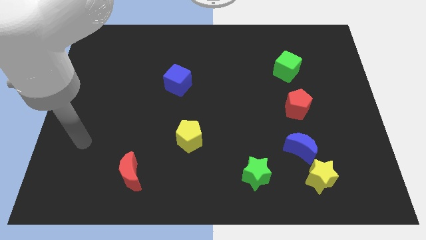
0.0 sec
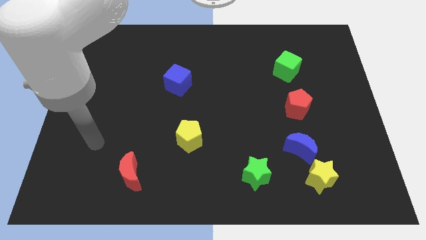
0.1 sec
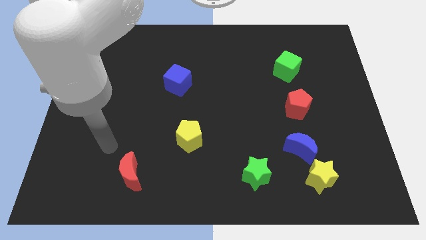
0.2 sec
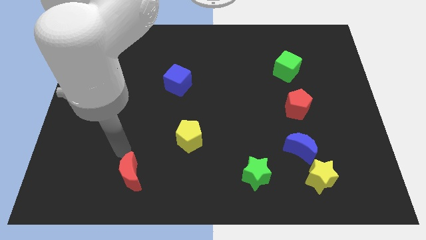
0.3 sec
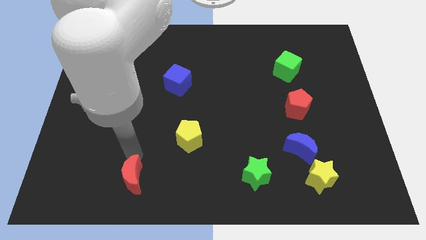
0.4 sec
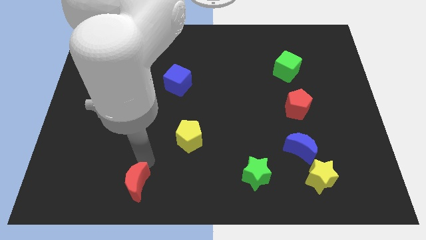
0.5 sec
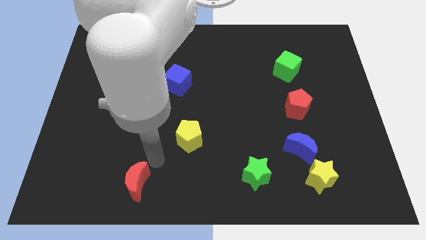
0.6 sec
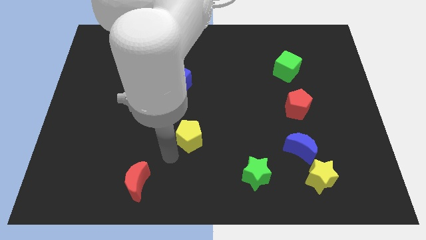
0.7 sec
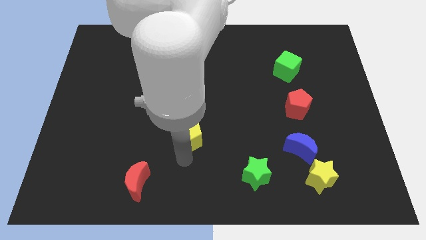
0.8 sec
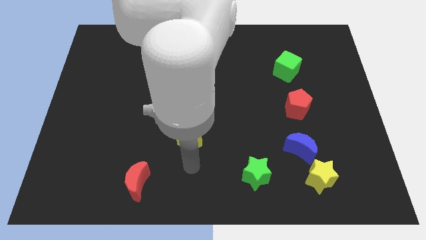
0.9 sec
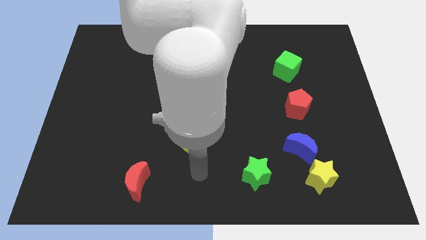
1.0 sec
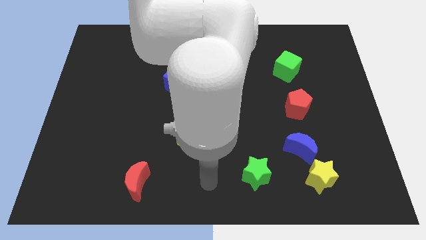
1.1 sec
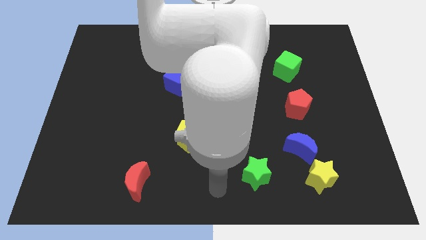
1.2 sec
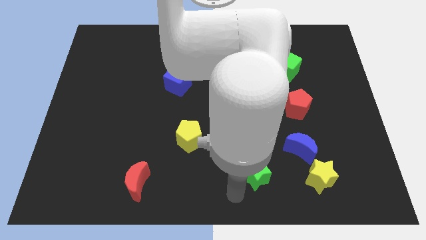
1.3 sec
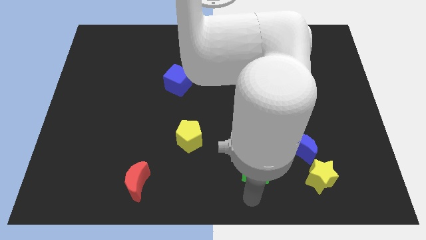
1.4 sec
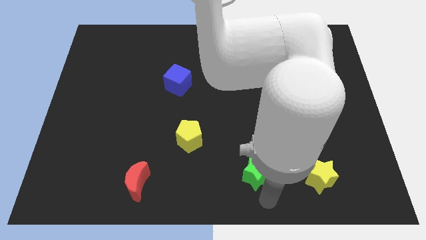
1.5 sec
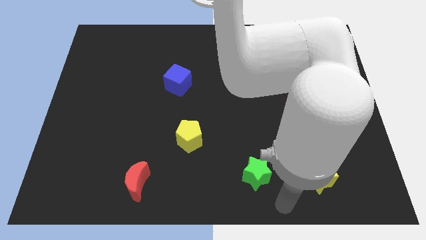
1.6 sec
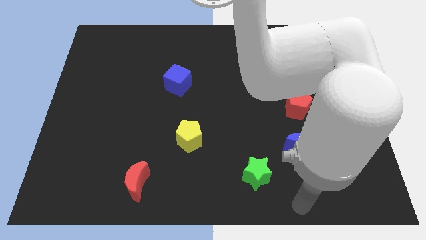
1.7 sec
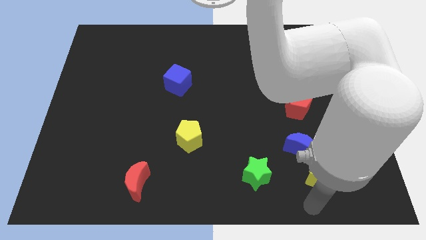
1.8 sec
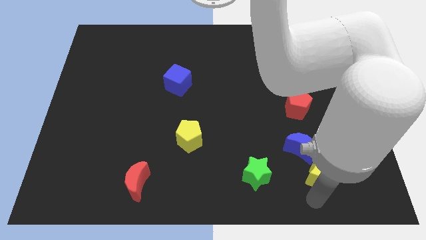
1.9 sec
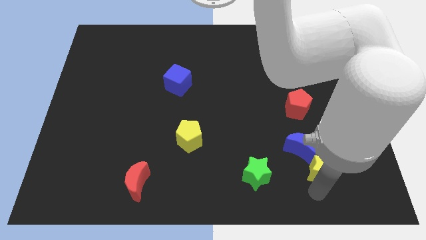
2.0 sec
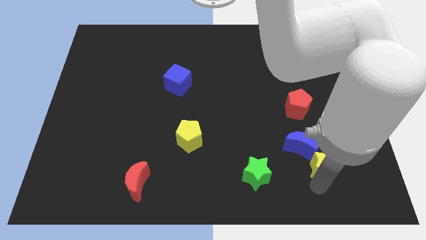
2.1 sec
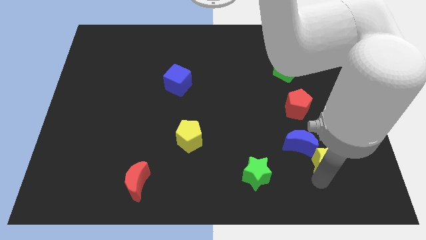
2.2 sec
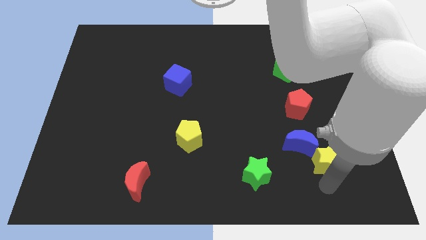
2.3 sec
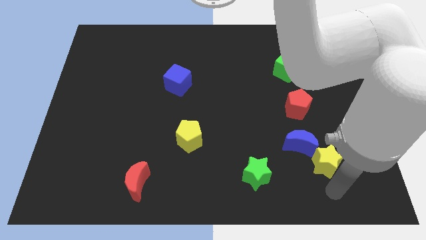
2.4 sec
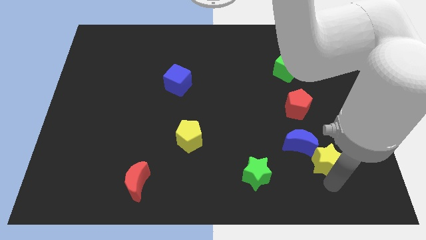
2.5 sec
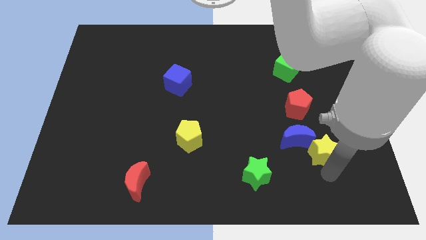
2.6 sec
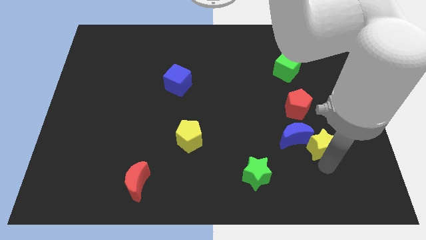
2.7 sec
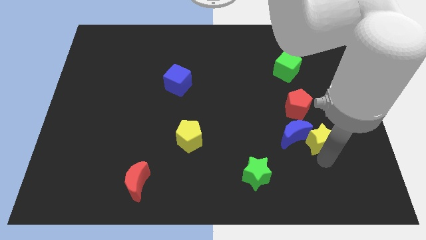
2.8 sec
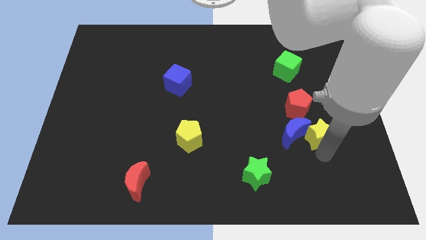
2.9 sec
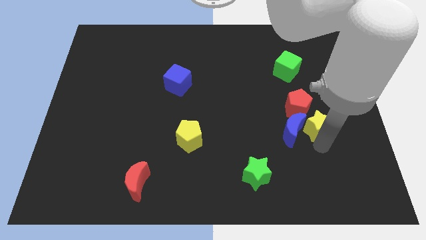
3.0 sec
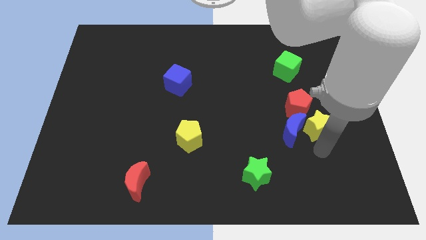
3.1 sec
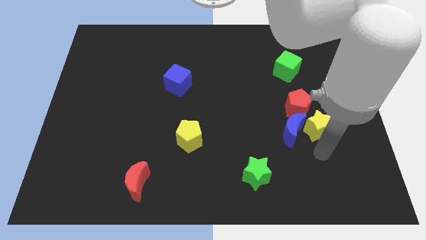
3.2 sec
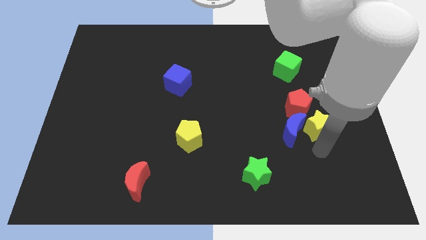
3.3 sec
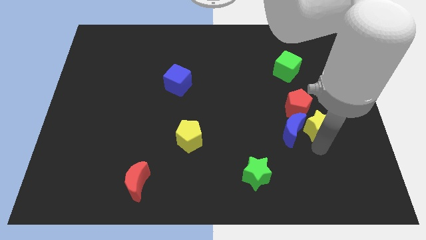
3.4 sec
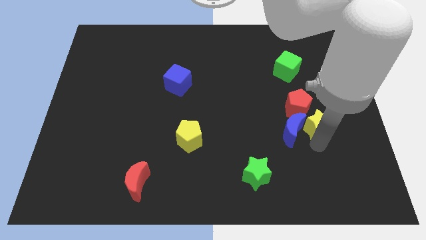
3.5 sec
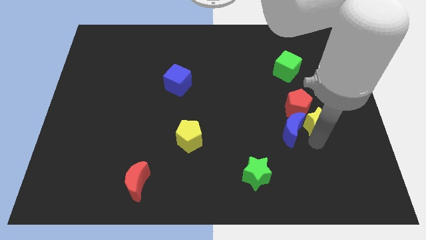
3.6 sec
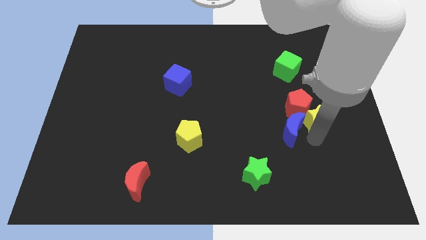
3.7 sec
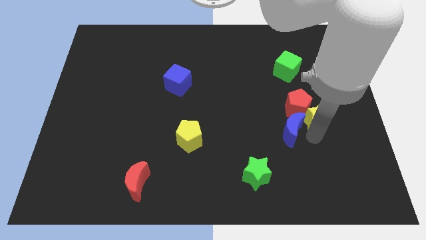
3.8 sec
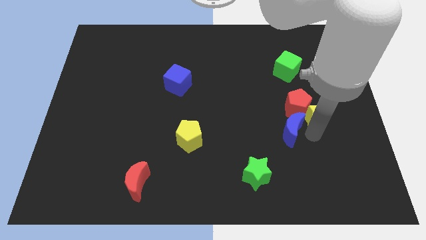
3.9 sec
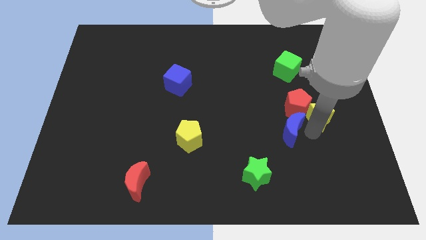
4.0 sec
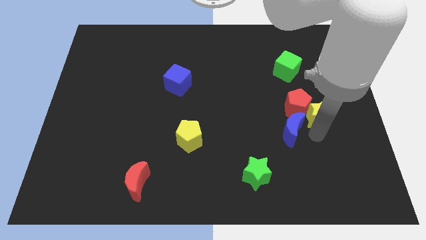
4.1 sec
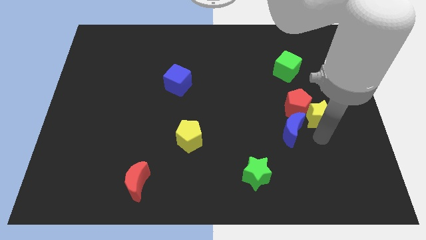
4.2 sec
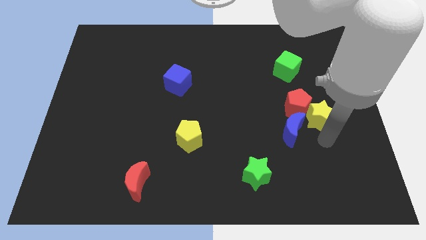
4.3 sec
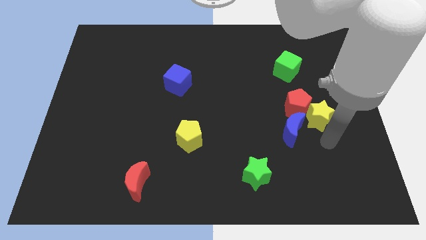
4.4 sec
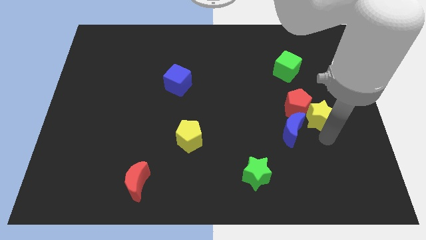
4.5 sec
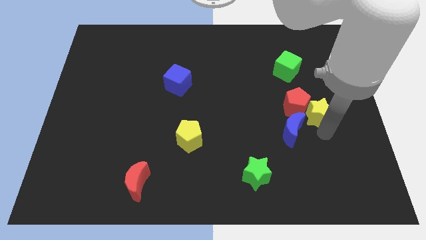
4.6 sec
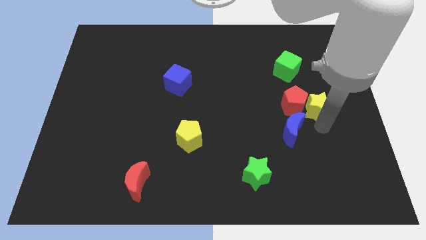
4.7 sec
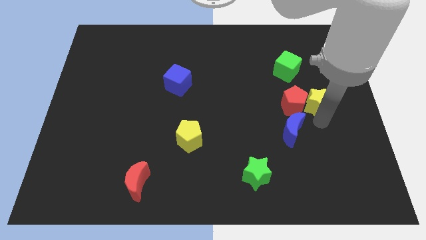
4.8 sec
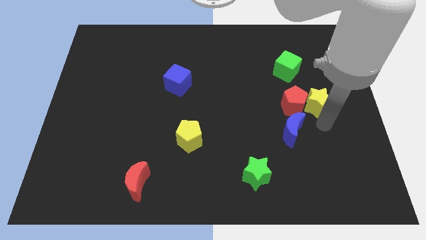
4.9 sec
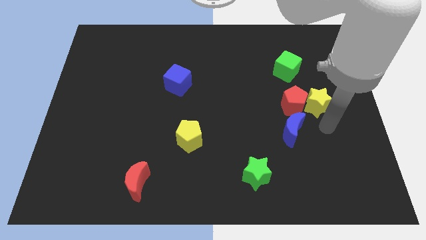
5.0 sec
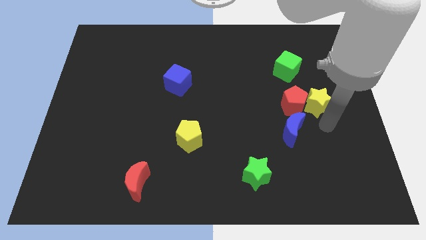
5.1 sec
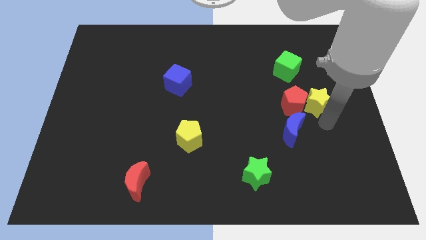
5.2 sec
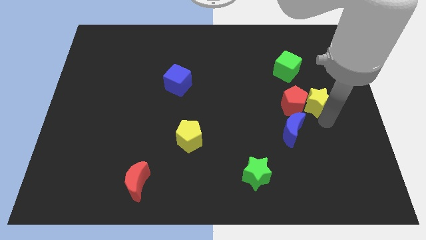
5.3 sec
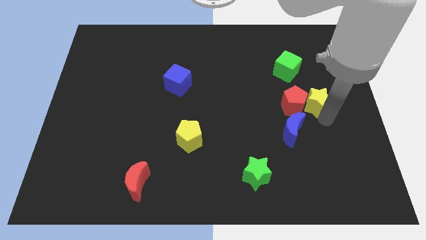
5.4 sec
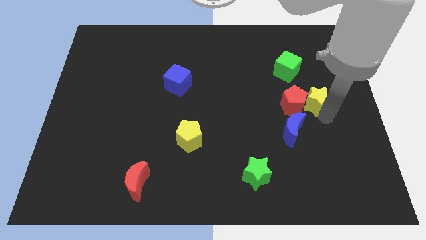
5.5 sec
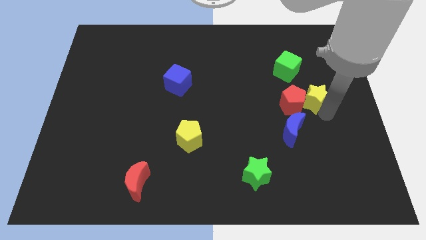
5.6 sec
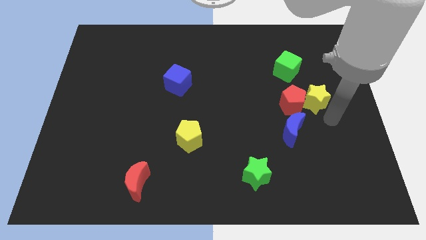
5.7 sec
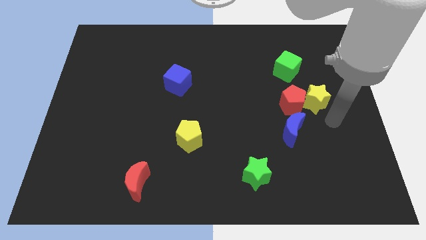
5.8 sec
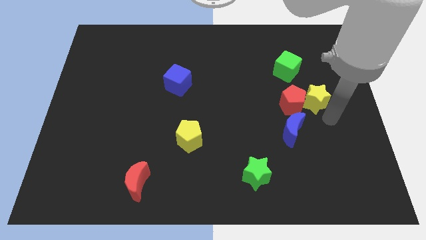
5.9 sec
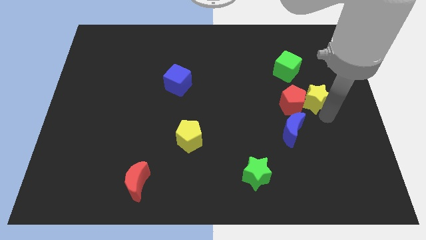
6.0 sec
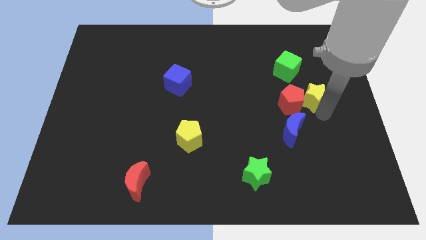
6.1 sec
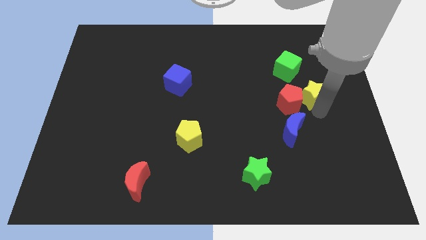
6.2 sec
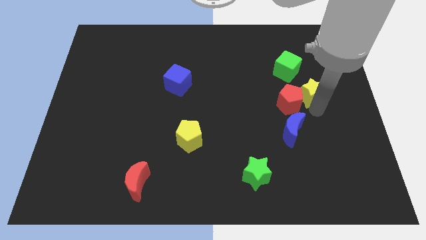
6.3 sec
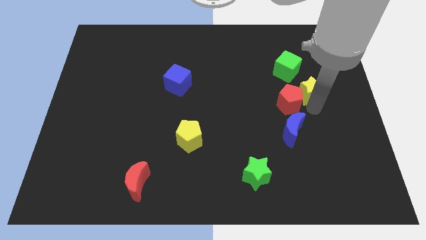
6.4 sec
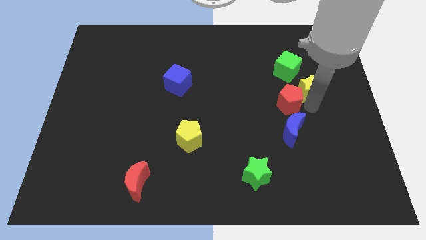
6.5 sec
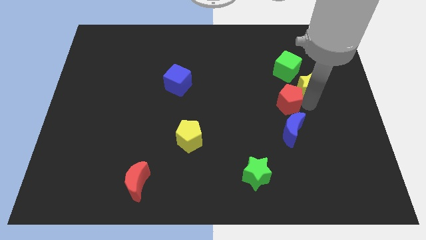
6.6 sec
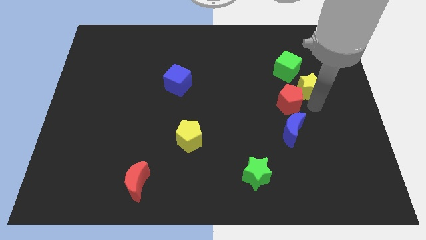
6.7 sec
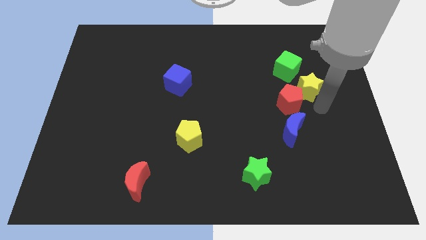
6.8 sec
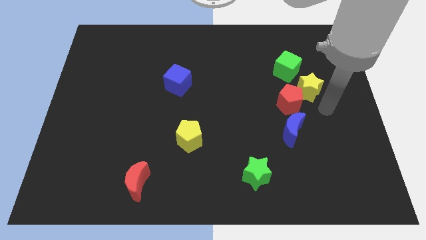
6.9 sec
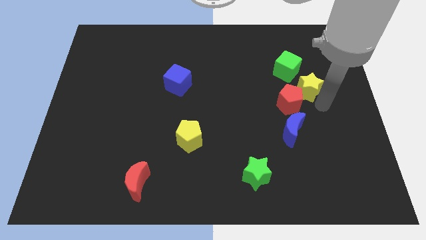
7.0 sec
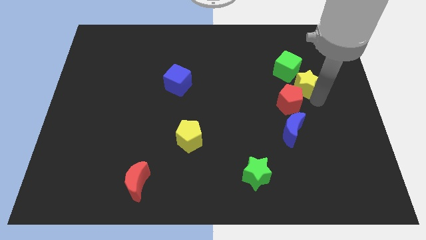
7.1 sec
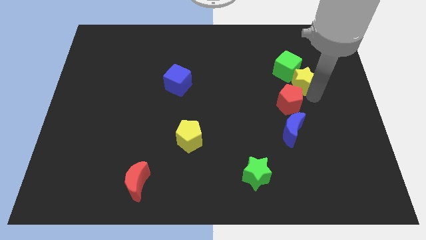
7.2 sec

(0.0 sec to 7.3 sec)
put the yellow star next to the green cube

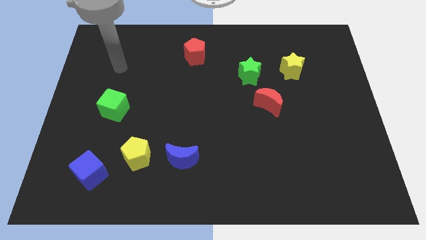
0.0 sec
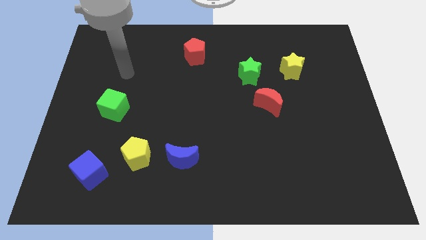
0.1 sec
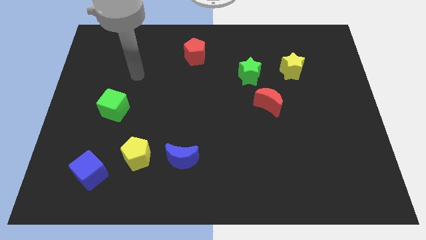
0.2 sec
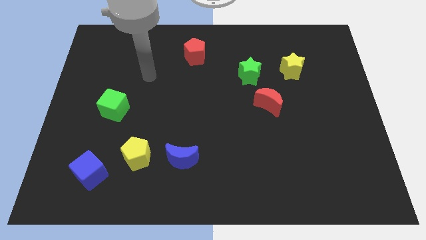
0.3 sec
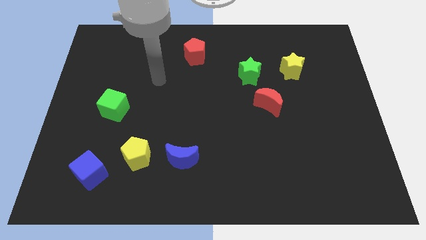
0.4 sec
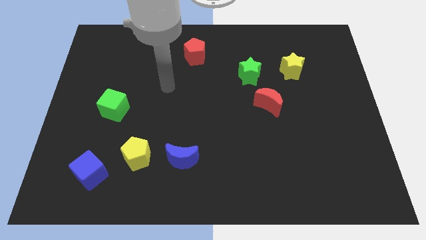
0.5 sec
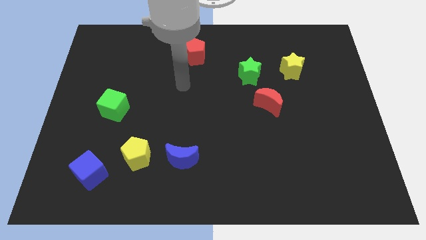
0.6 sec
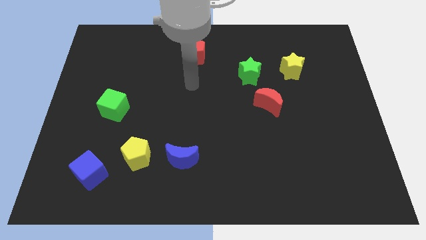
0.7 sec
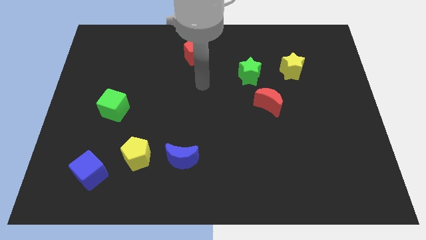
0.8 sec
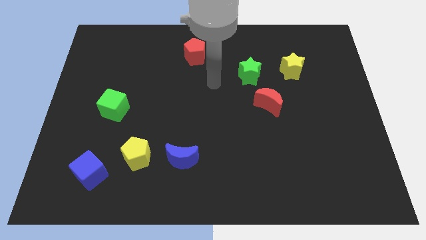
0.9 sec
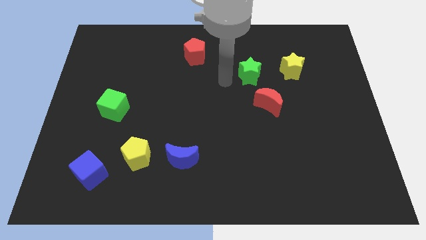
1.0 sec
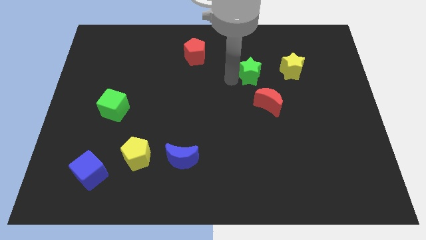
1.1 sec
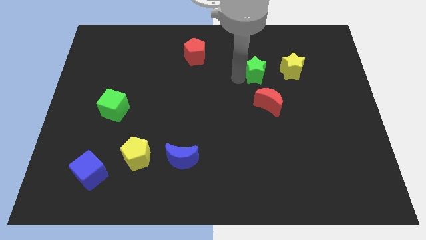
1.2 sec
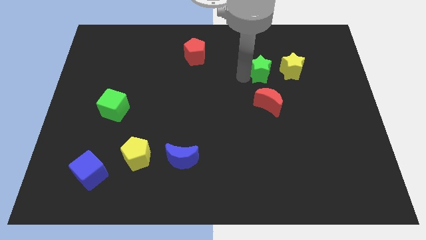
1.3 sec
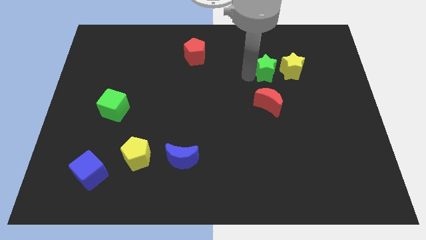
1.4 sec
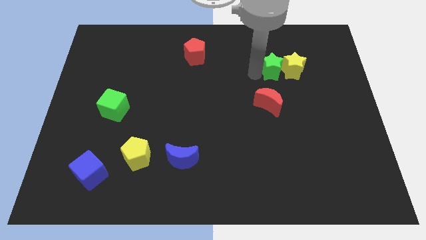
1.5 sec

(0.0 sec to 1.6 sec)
slide the green star to the yellow star
